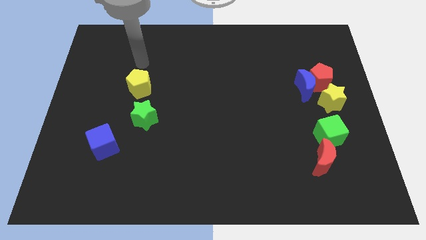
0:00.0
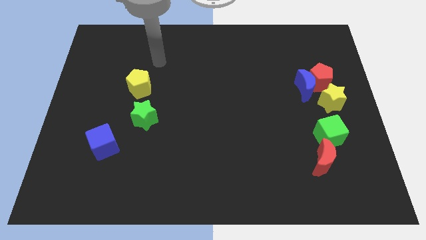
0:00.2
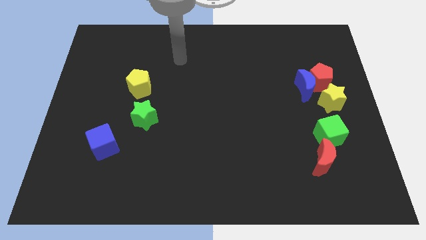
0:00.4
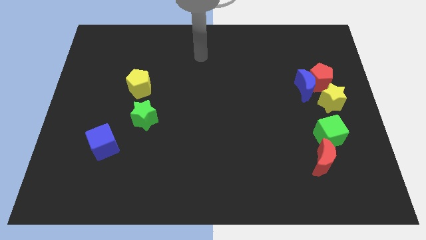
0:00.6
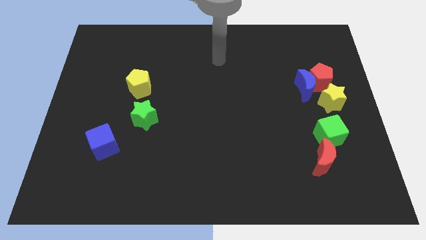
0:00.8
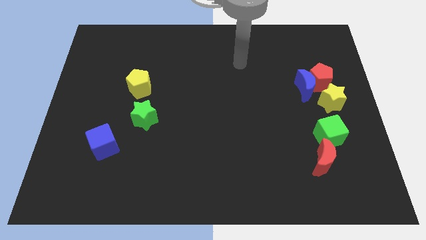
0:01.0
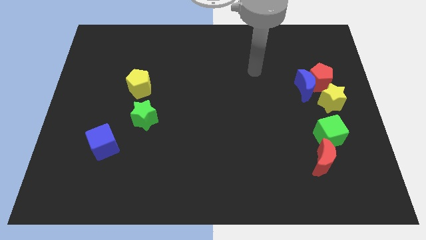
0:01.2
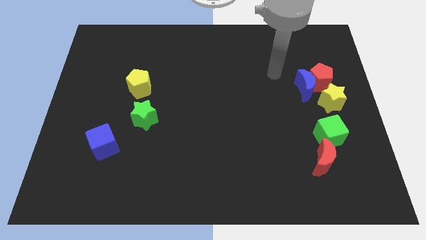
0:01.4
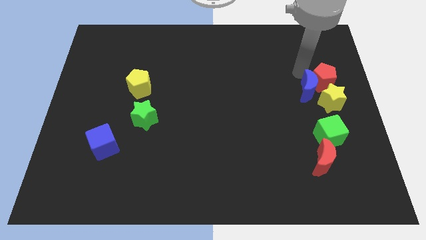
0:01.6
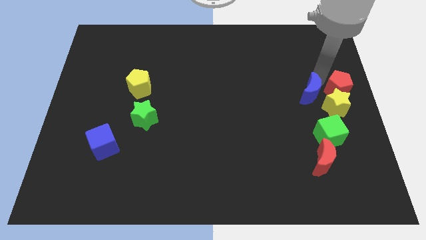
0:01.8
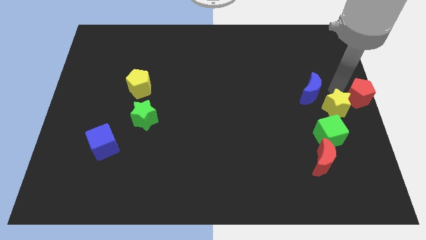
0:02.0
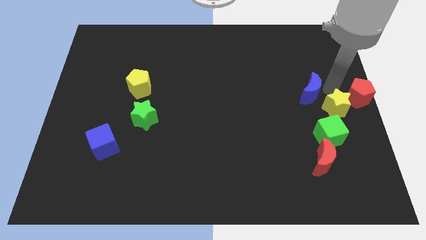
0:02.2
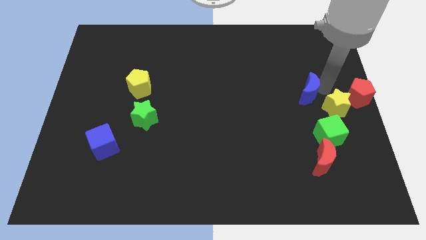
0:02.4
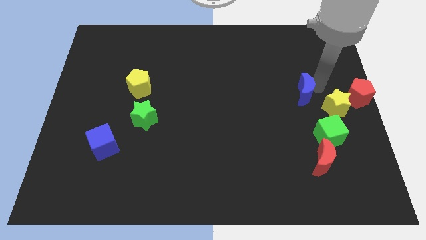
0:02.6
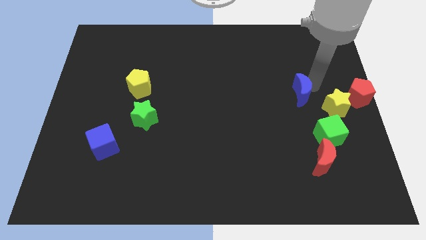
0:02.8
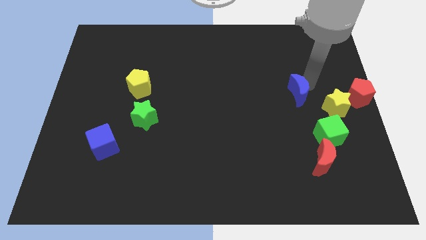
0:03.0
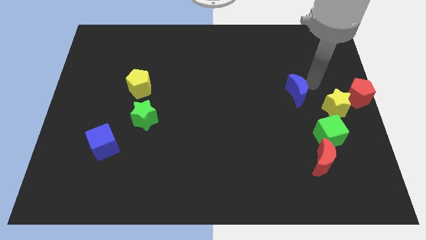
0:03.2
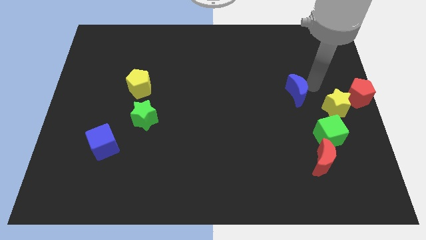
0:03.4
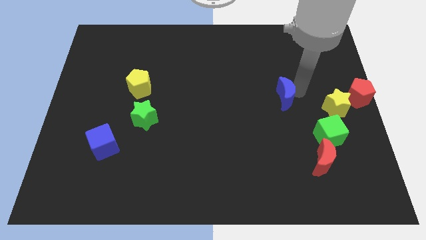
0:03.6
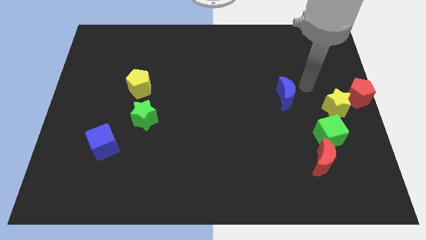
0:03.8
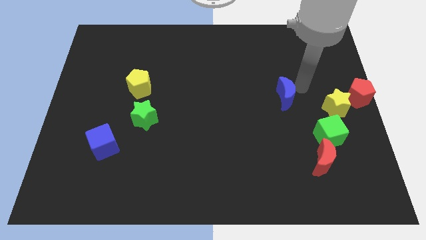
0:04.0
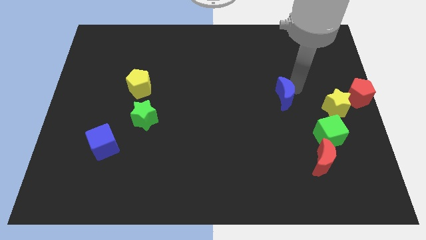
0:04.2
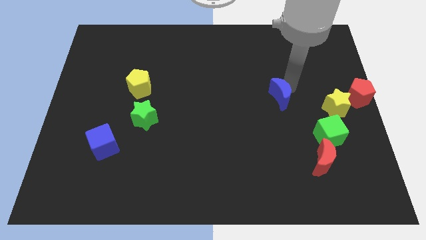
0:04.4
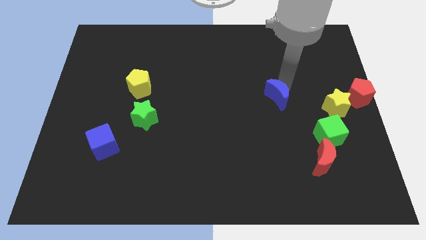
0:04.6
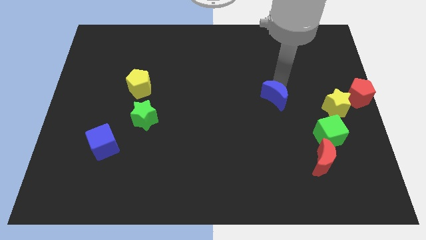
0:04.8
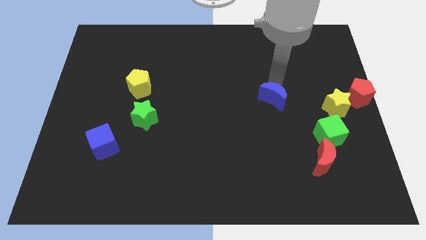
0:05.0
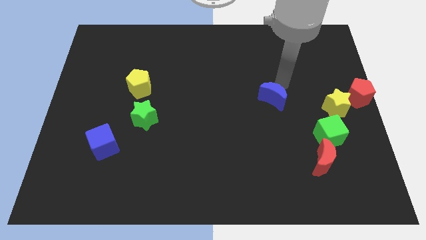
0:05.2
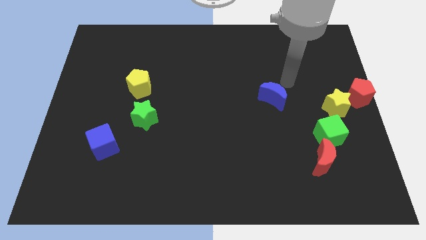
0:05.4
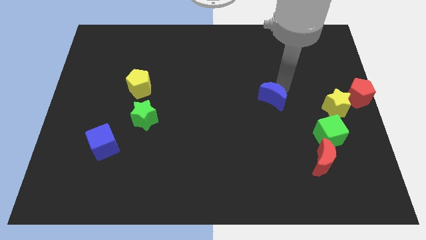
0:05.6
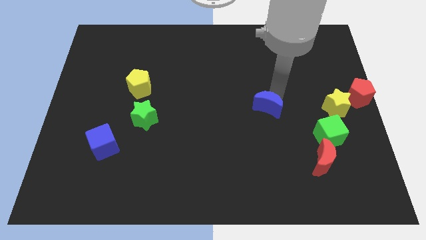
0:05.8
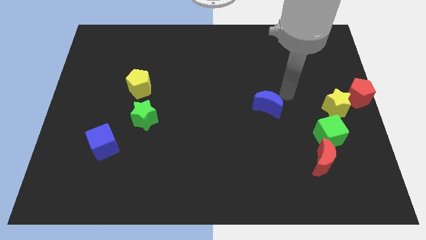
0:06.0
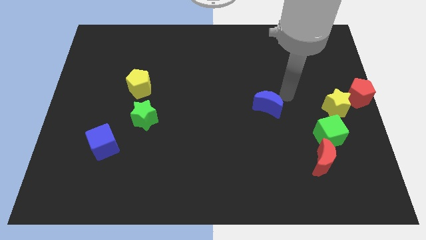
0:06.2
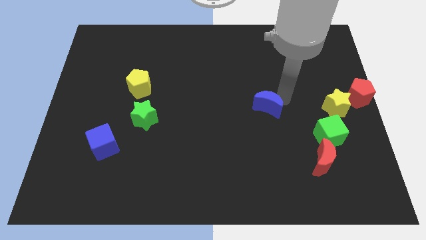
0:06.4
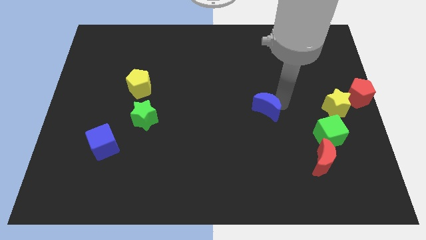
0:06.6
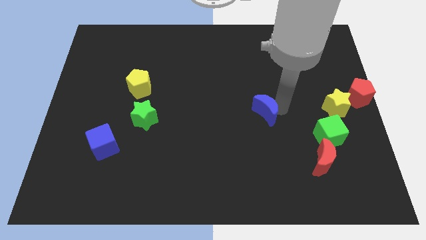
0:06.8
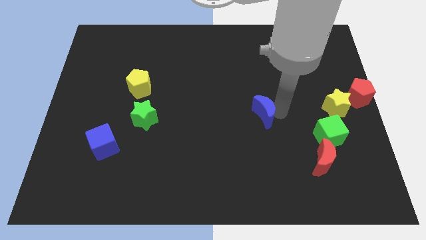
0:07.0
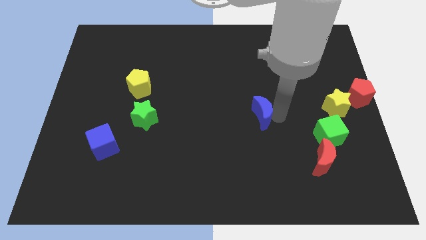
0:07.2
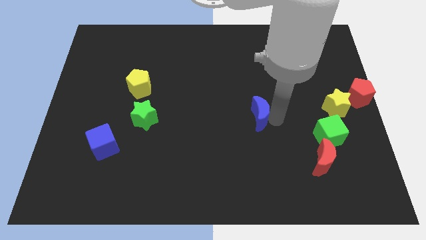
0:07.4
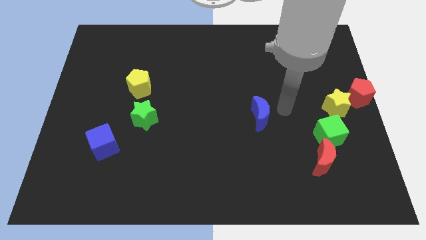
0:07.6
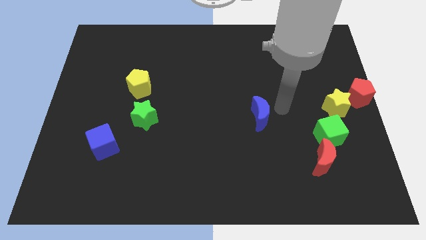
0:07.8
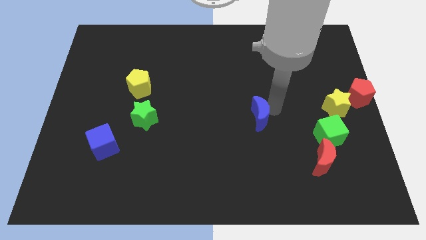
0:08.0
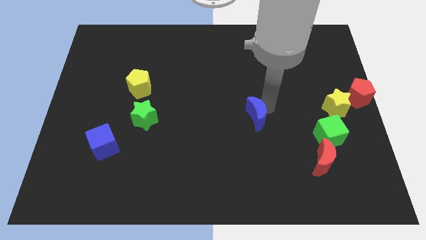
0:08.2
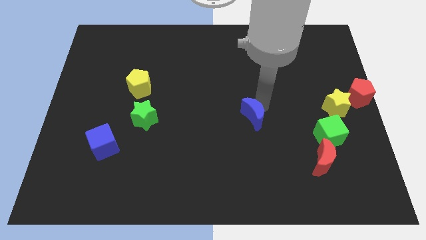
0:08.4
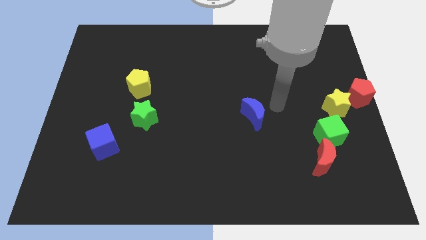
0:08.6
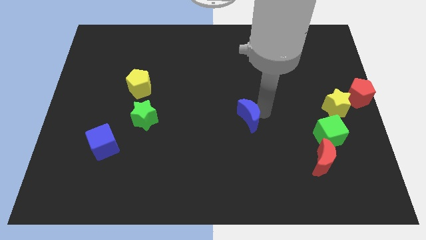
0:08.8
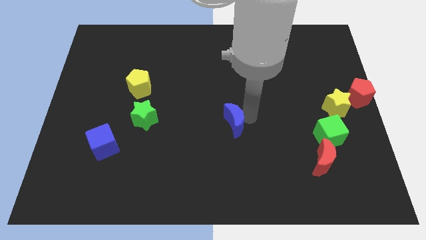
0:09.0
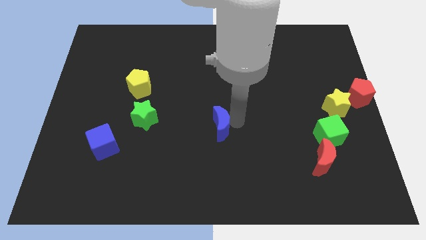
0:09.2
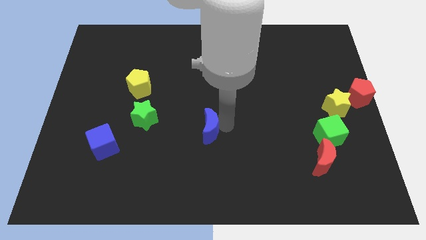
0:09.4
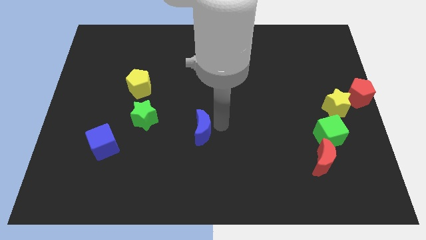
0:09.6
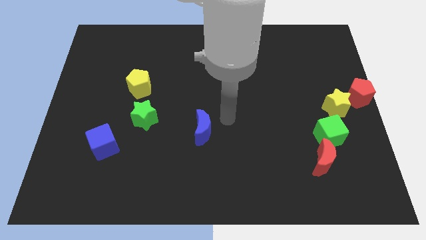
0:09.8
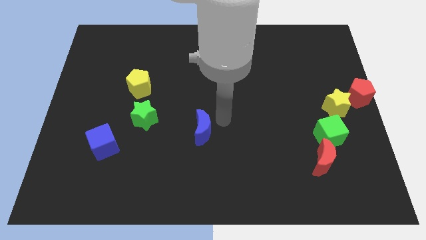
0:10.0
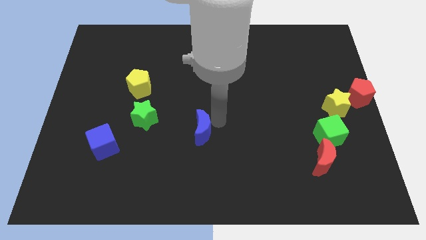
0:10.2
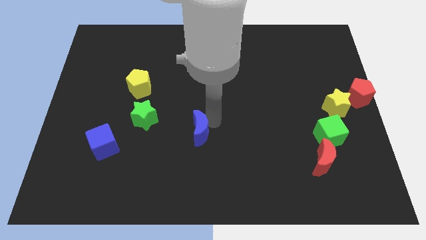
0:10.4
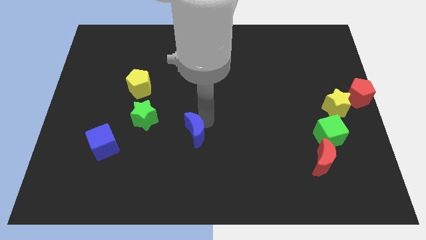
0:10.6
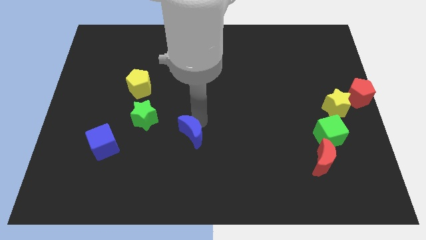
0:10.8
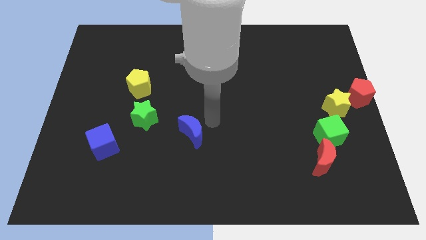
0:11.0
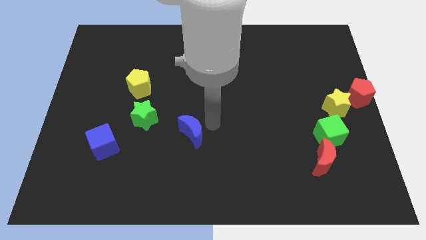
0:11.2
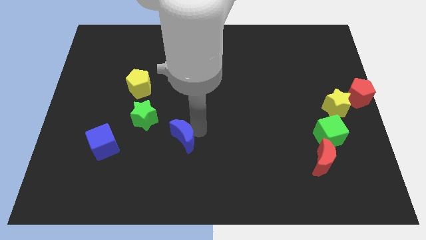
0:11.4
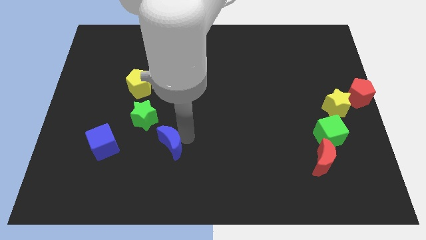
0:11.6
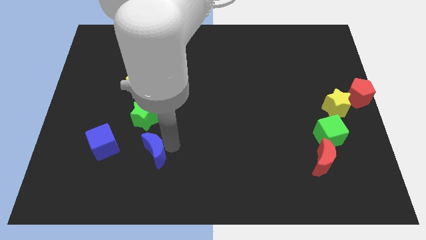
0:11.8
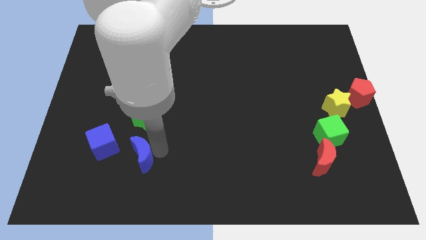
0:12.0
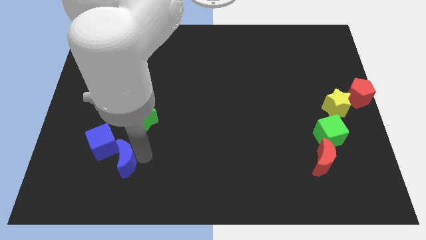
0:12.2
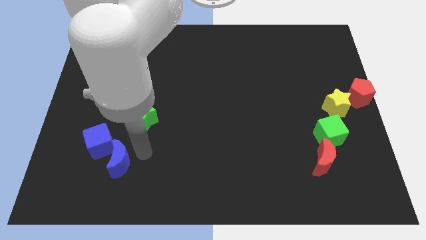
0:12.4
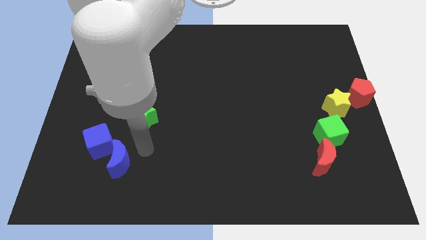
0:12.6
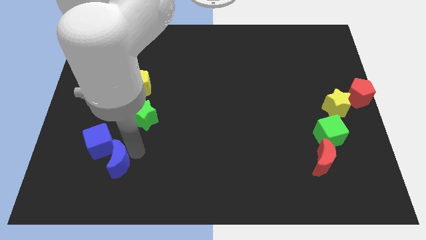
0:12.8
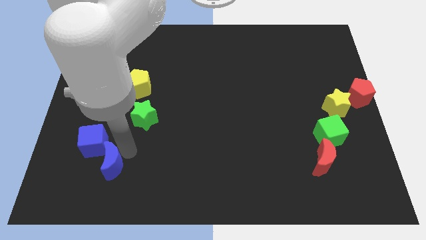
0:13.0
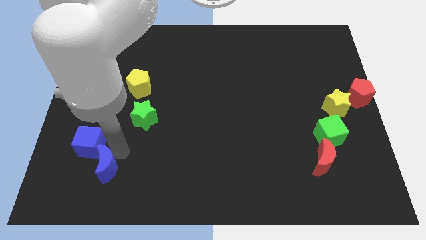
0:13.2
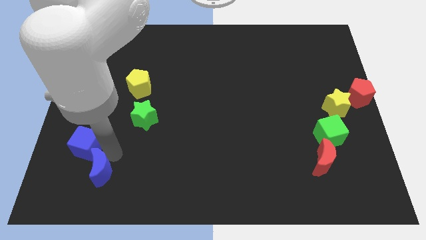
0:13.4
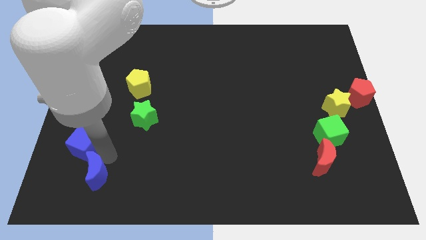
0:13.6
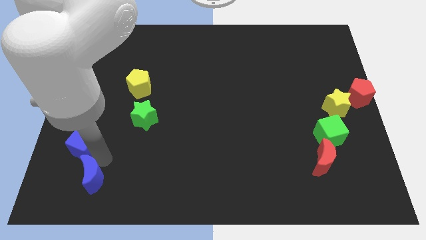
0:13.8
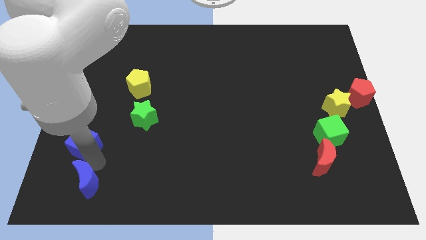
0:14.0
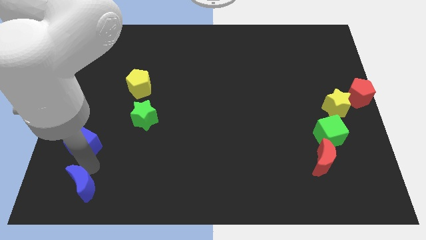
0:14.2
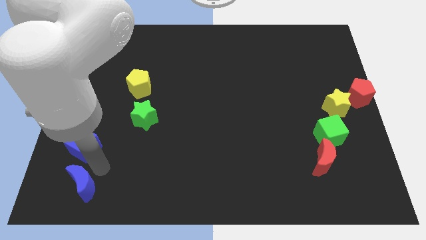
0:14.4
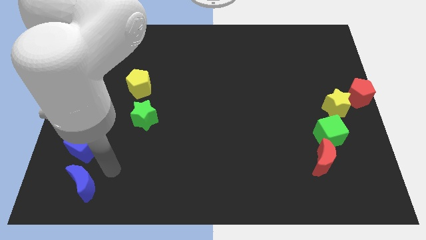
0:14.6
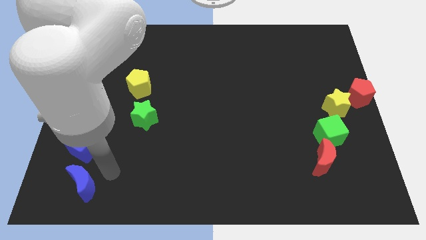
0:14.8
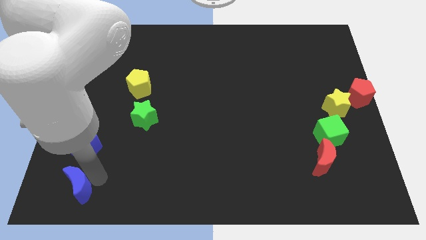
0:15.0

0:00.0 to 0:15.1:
put the blue moon to the bottom left corner
